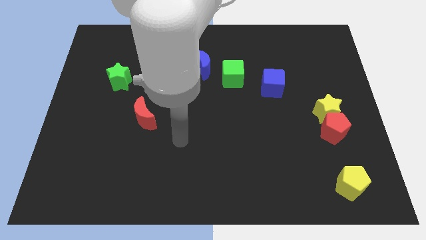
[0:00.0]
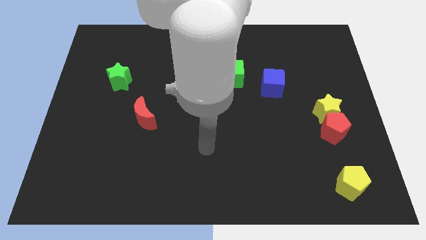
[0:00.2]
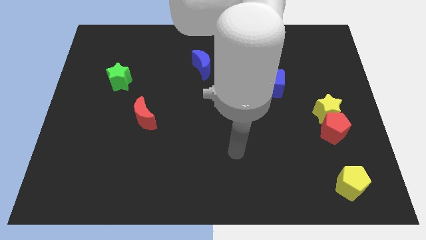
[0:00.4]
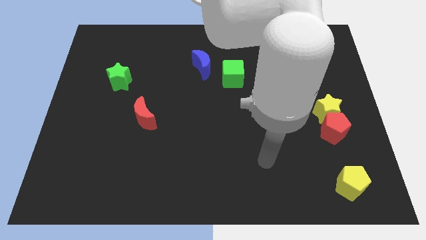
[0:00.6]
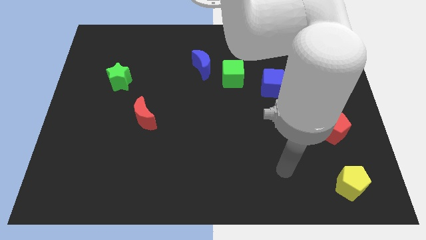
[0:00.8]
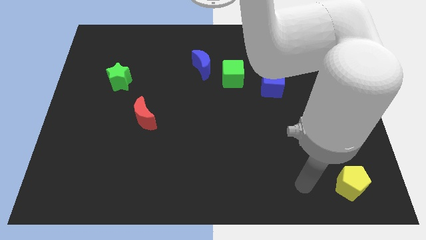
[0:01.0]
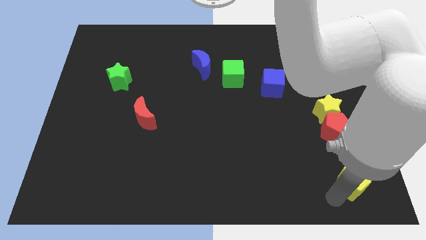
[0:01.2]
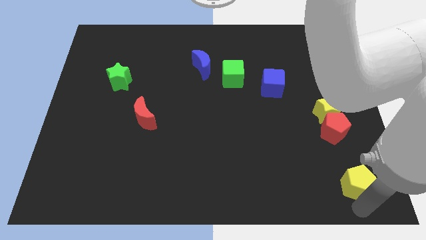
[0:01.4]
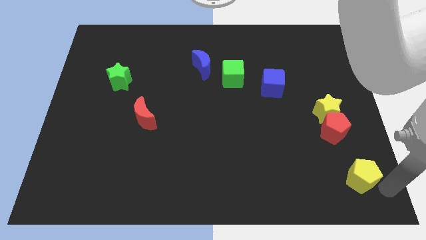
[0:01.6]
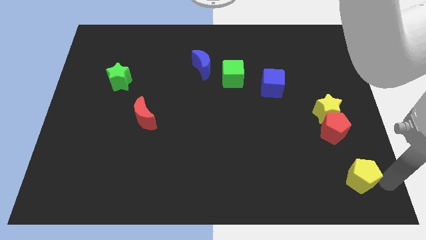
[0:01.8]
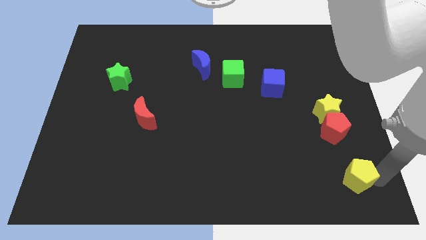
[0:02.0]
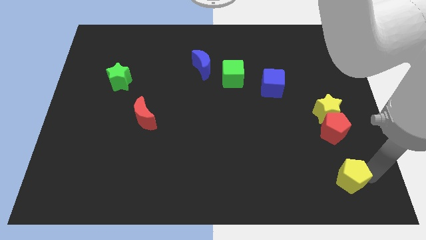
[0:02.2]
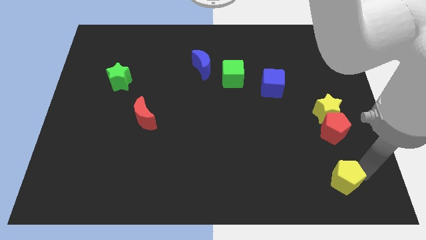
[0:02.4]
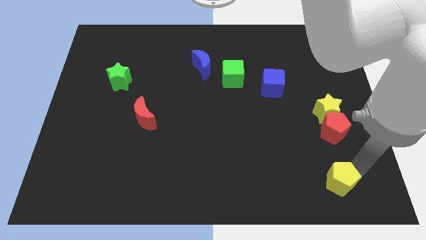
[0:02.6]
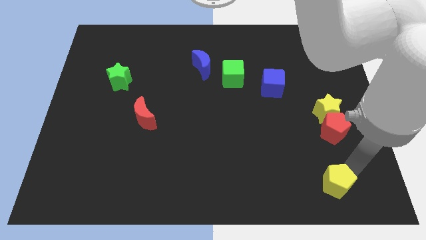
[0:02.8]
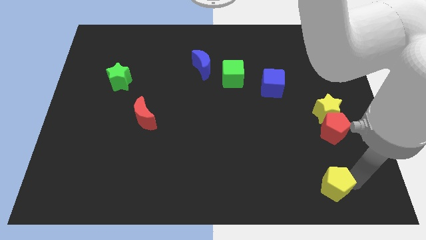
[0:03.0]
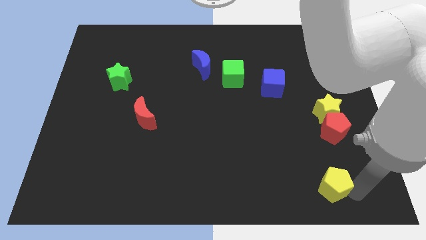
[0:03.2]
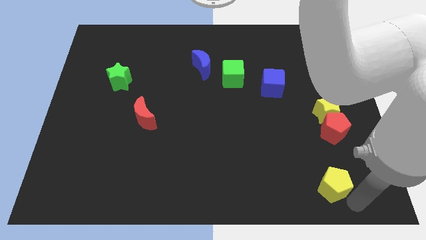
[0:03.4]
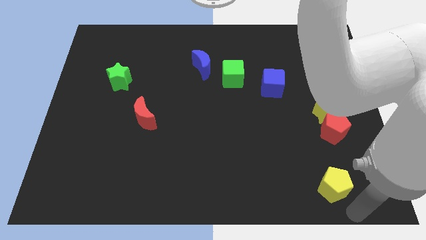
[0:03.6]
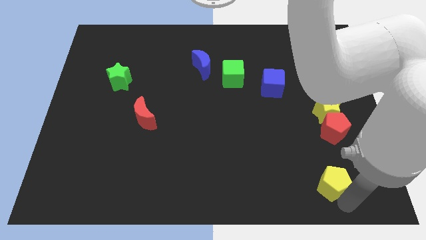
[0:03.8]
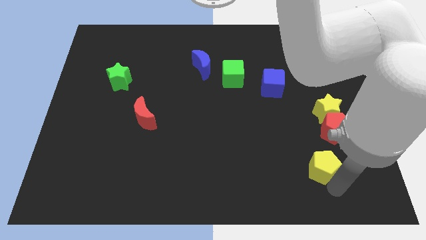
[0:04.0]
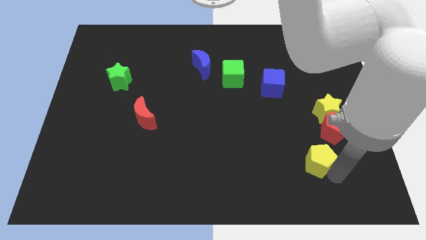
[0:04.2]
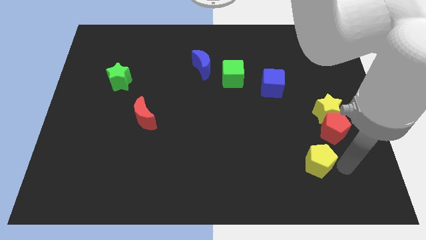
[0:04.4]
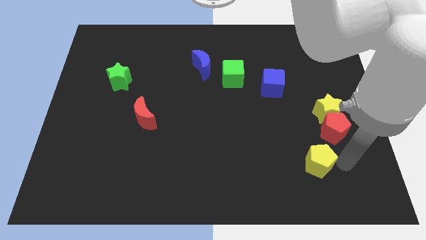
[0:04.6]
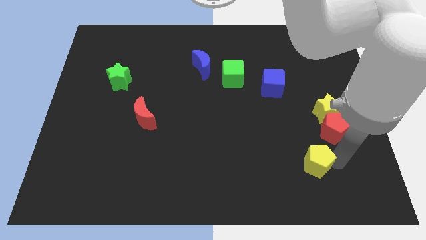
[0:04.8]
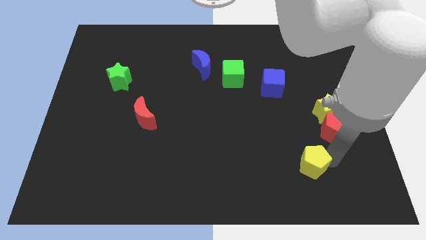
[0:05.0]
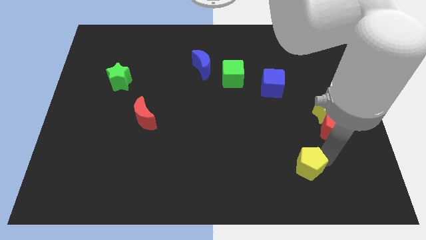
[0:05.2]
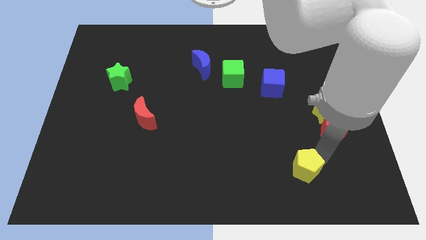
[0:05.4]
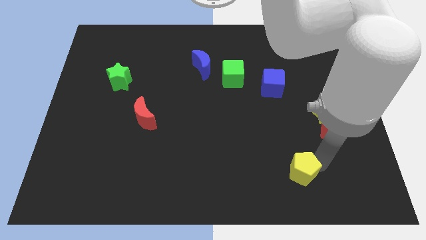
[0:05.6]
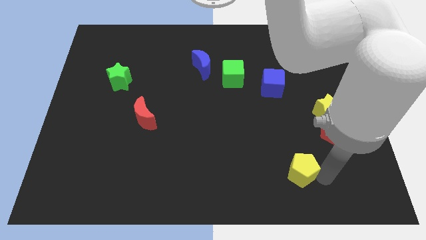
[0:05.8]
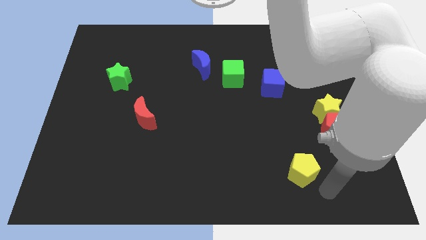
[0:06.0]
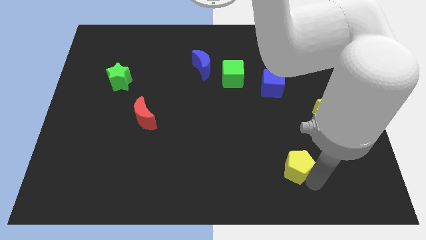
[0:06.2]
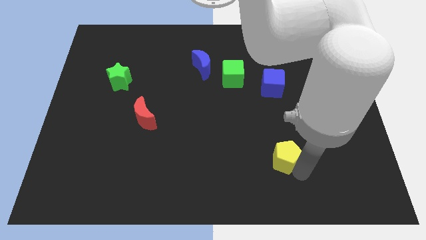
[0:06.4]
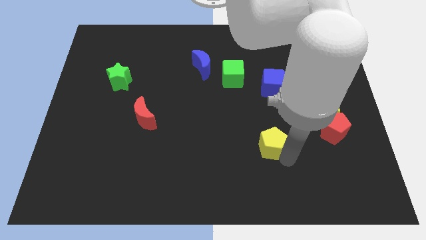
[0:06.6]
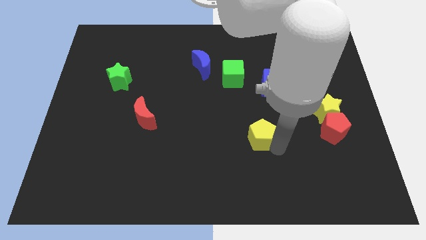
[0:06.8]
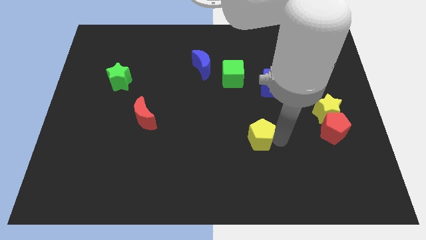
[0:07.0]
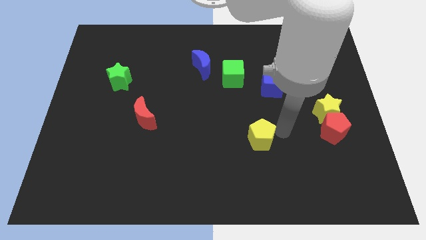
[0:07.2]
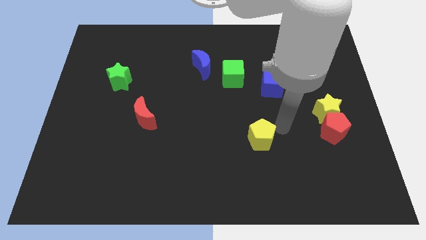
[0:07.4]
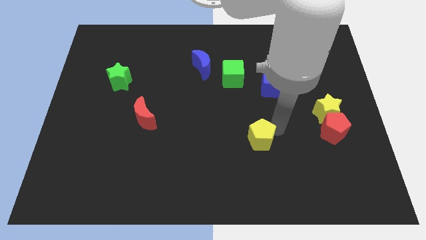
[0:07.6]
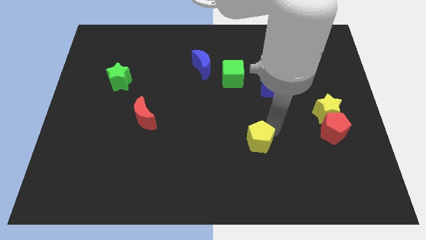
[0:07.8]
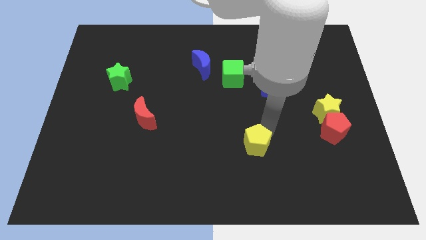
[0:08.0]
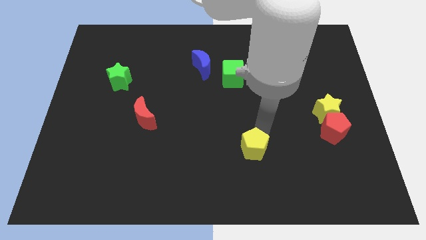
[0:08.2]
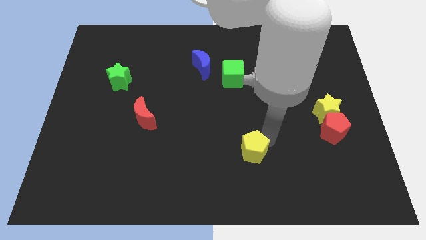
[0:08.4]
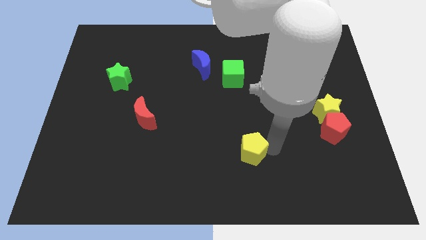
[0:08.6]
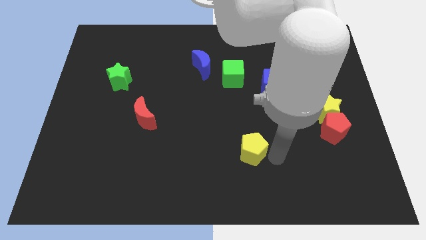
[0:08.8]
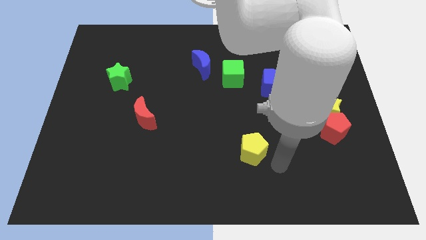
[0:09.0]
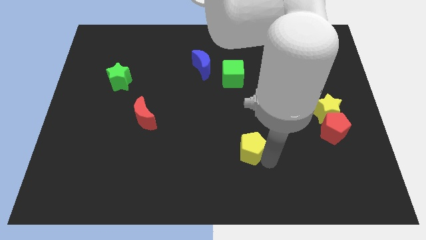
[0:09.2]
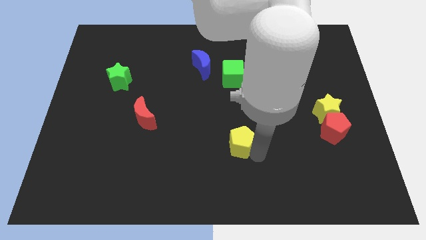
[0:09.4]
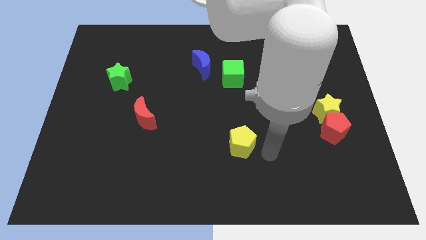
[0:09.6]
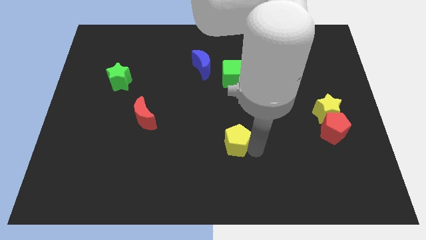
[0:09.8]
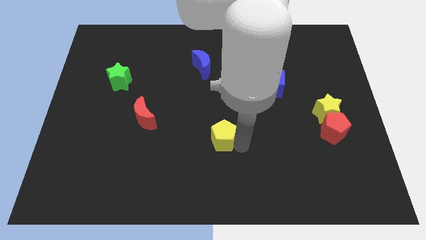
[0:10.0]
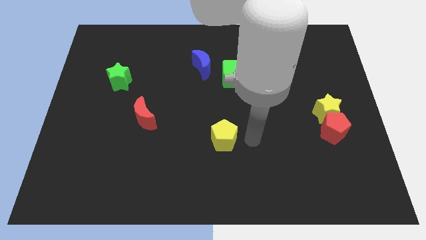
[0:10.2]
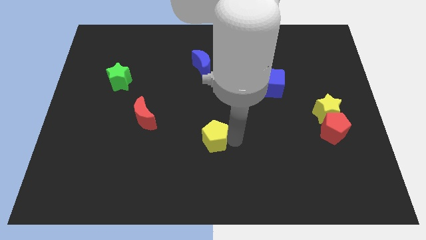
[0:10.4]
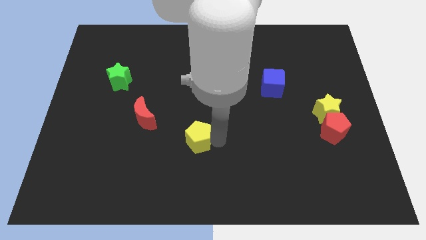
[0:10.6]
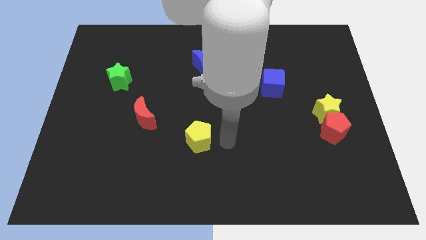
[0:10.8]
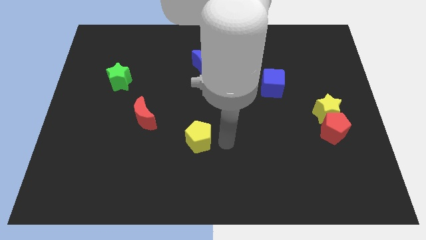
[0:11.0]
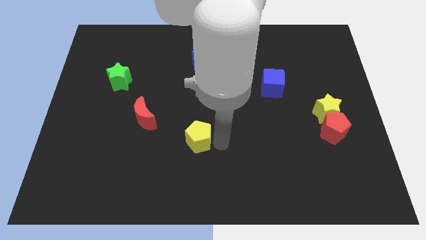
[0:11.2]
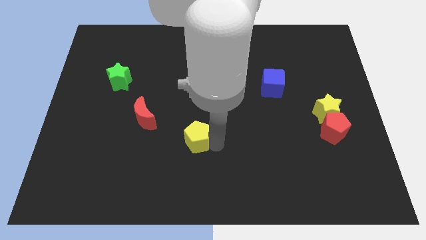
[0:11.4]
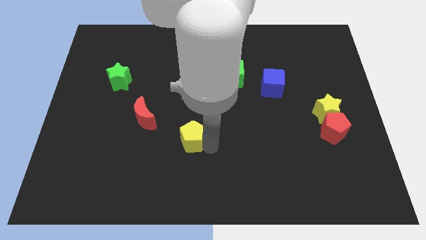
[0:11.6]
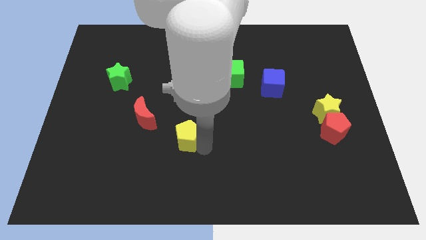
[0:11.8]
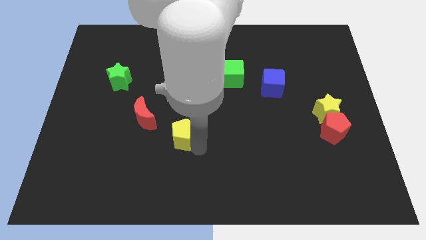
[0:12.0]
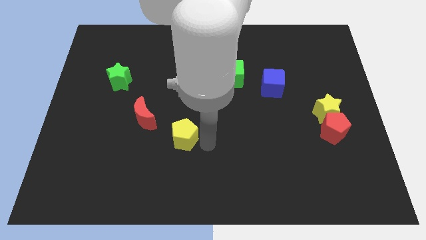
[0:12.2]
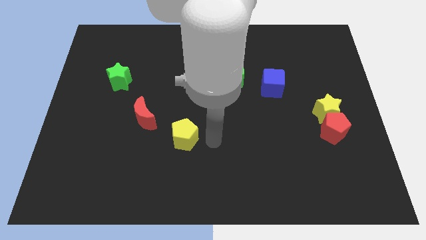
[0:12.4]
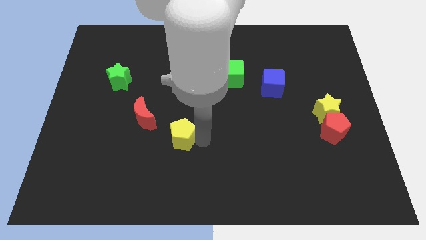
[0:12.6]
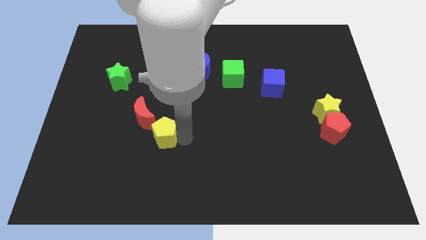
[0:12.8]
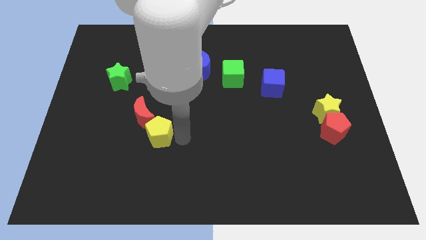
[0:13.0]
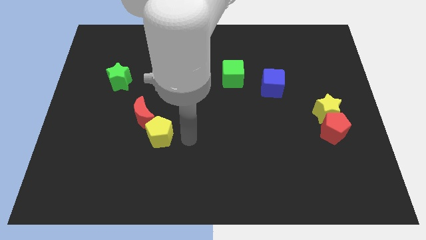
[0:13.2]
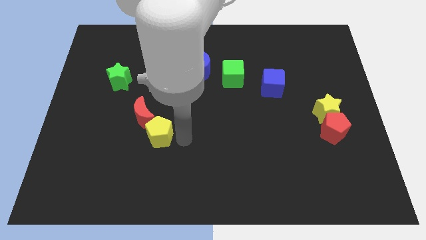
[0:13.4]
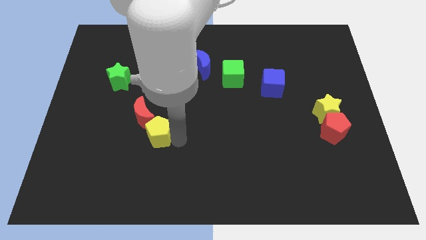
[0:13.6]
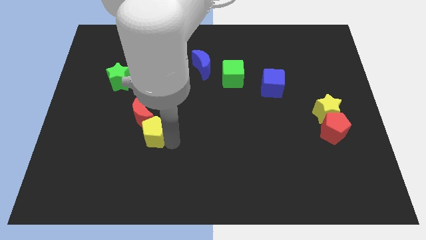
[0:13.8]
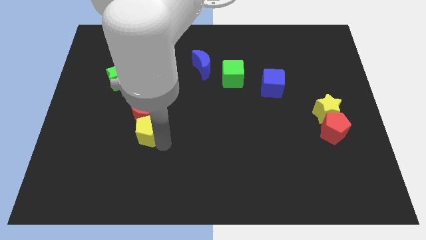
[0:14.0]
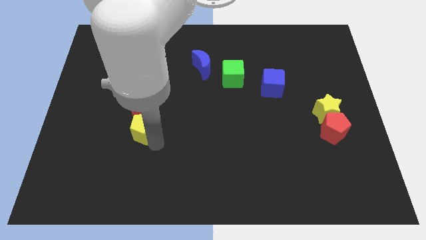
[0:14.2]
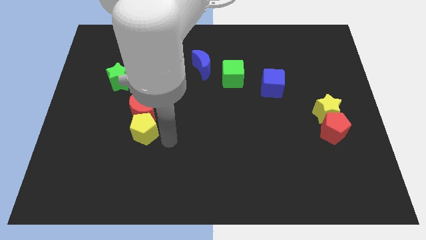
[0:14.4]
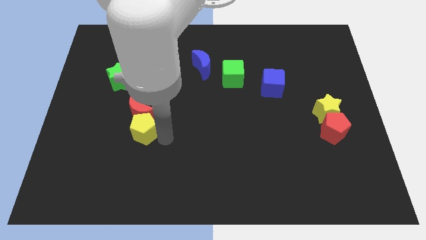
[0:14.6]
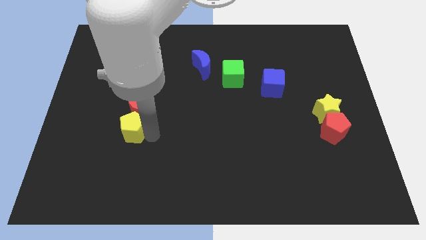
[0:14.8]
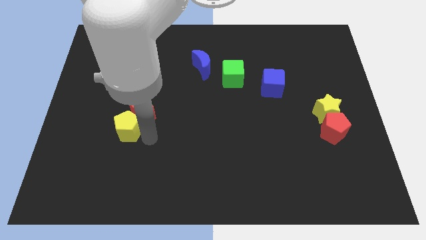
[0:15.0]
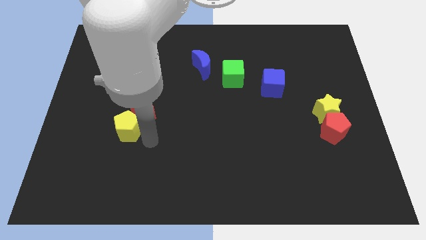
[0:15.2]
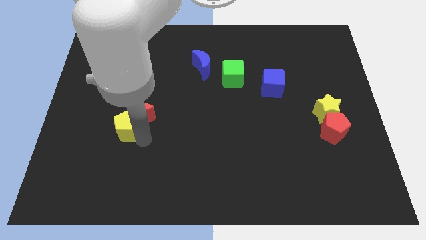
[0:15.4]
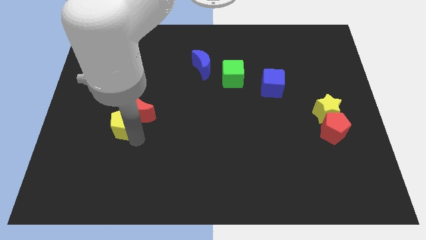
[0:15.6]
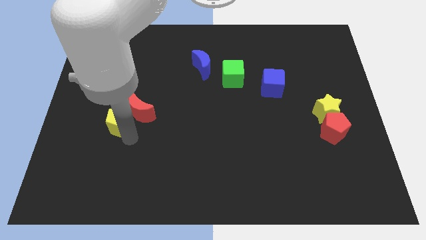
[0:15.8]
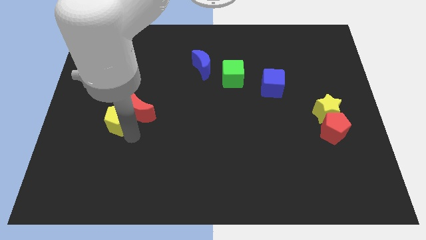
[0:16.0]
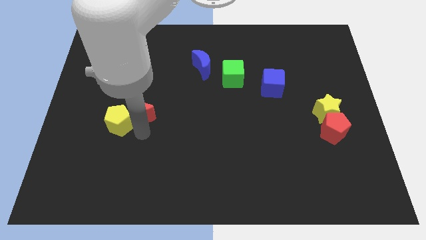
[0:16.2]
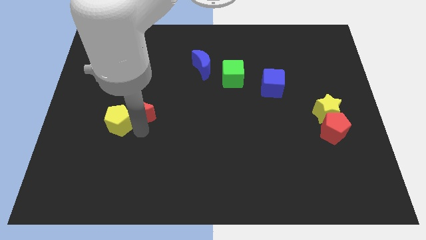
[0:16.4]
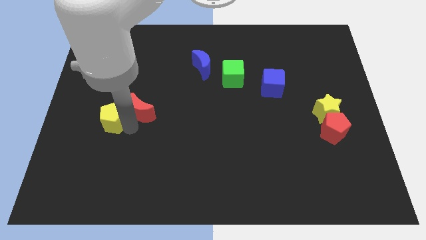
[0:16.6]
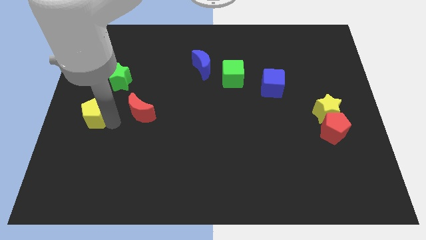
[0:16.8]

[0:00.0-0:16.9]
push the yellow pentagon to the left side of the board
